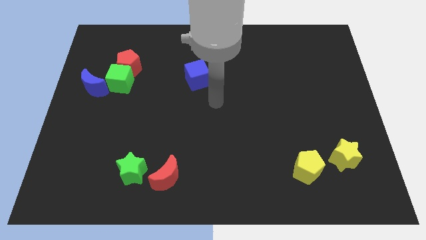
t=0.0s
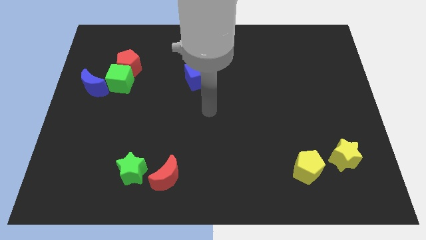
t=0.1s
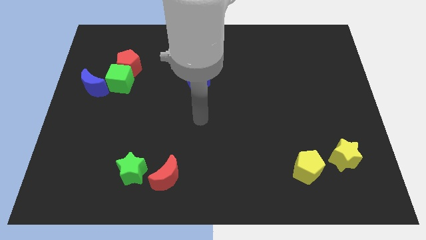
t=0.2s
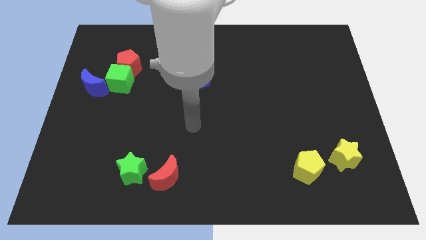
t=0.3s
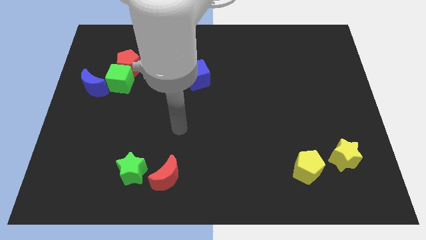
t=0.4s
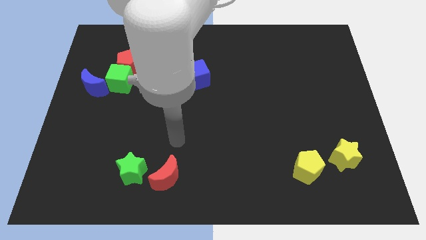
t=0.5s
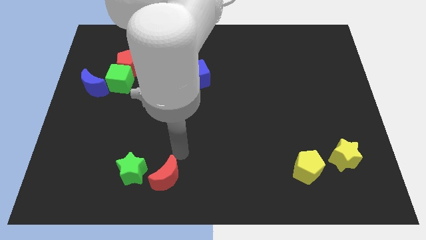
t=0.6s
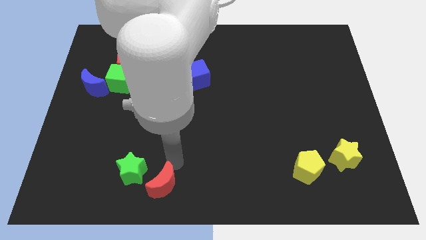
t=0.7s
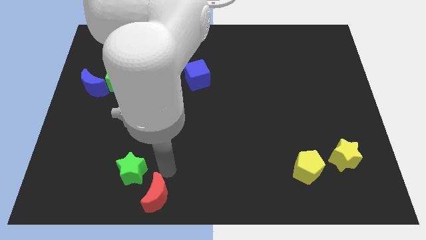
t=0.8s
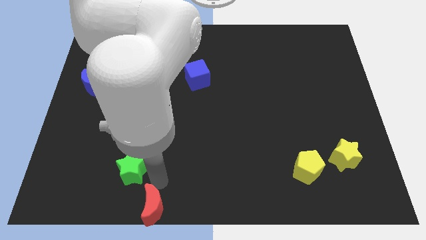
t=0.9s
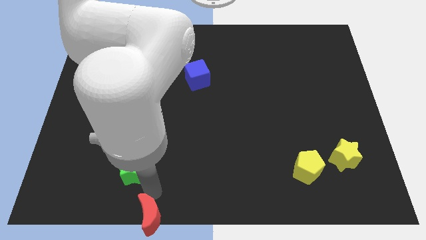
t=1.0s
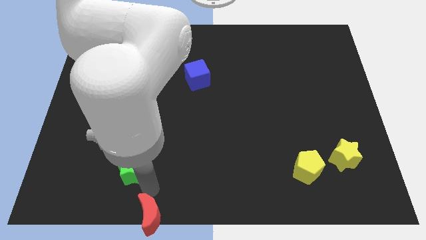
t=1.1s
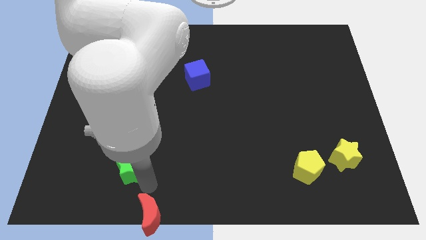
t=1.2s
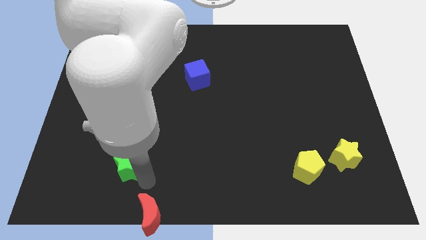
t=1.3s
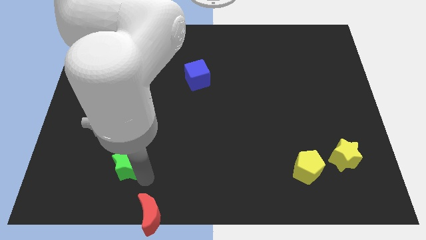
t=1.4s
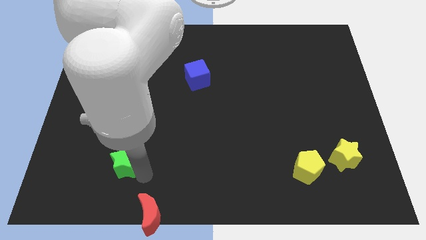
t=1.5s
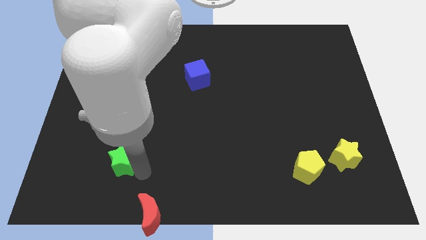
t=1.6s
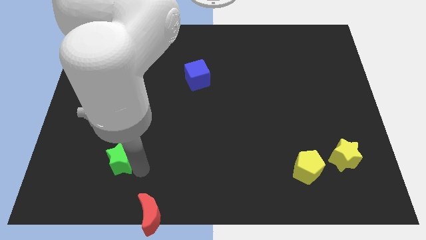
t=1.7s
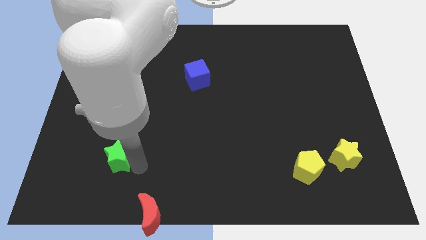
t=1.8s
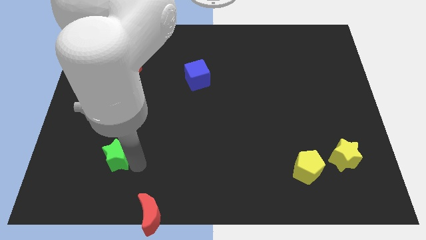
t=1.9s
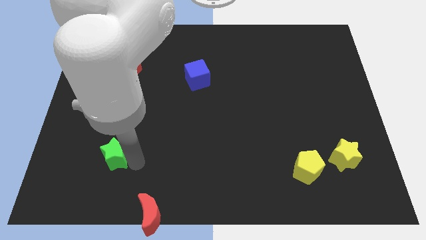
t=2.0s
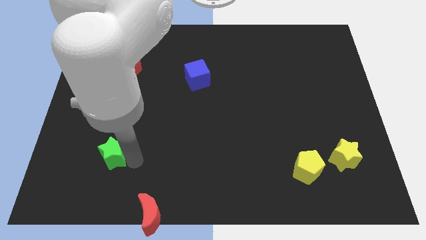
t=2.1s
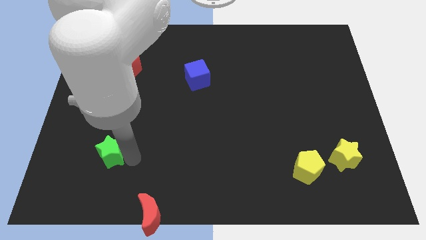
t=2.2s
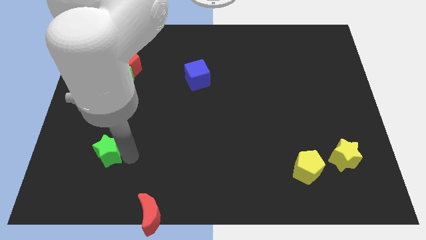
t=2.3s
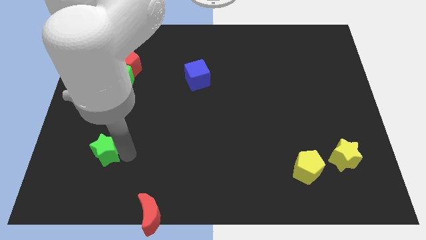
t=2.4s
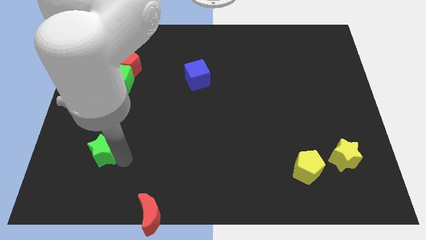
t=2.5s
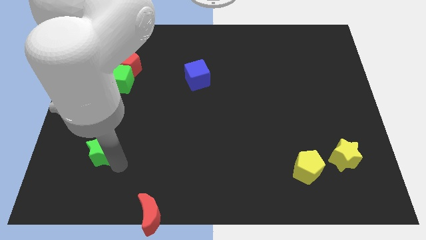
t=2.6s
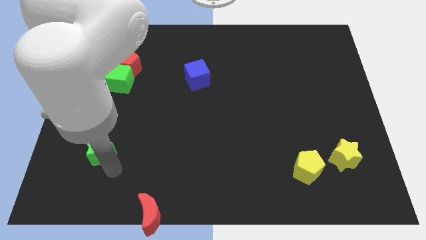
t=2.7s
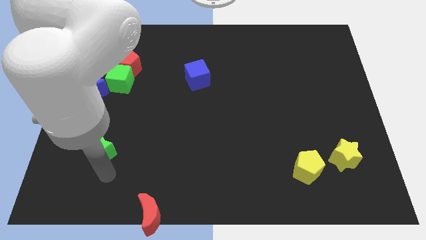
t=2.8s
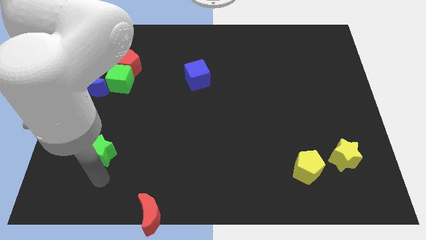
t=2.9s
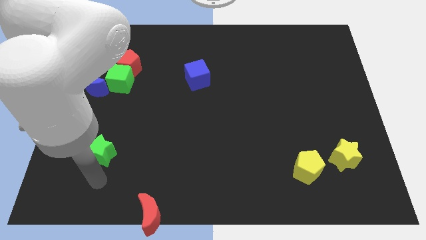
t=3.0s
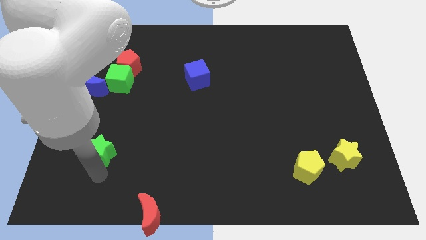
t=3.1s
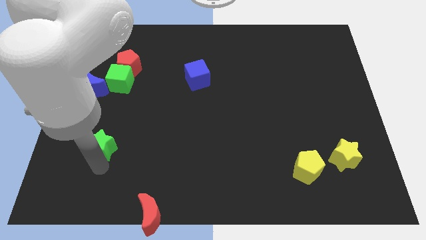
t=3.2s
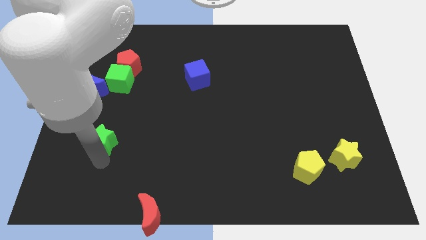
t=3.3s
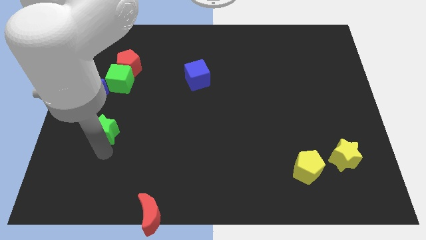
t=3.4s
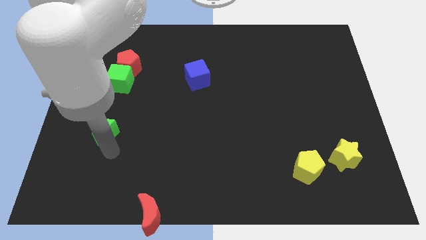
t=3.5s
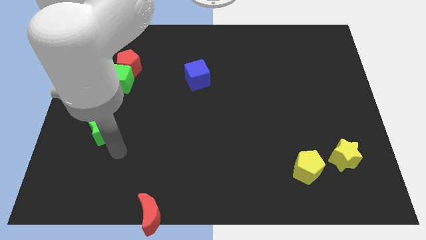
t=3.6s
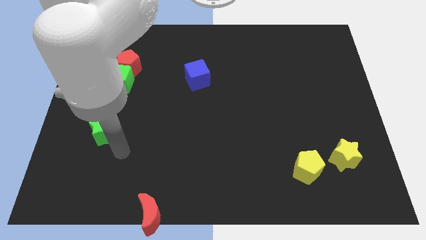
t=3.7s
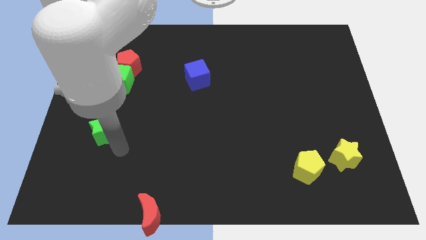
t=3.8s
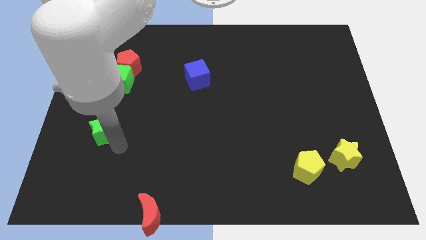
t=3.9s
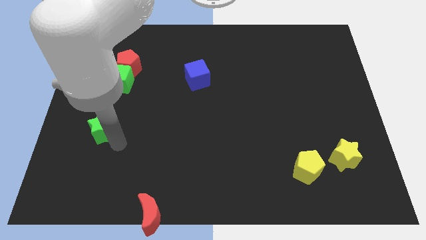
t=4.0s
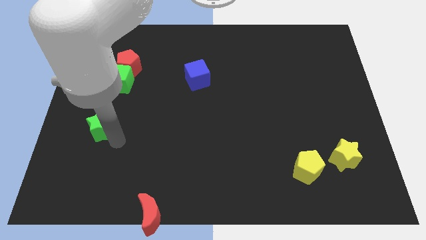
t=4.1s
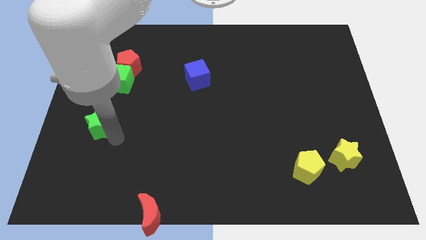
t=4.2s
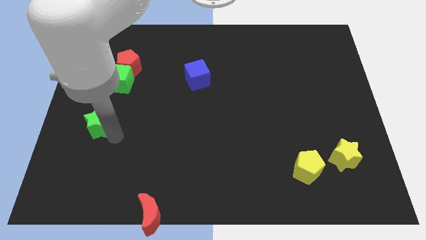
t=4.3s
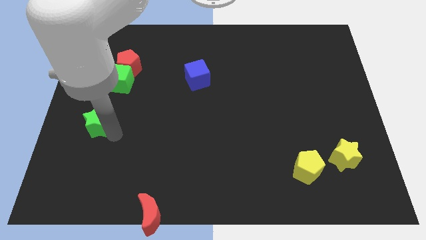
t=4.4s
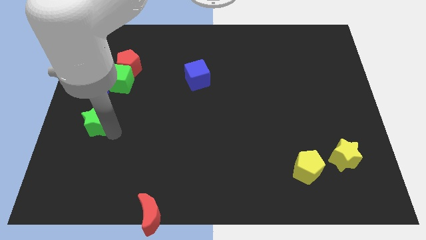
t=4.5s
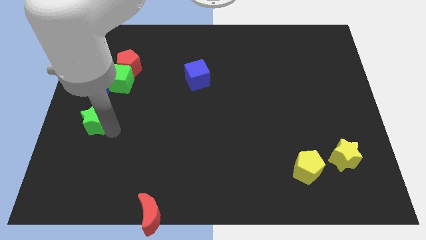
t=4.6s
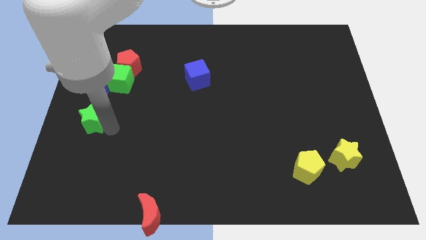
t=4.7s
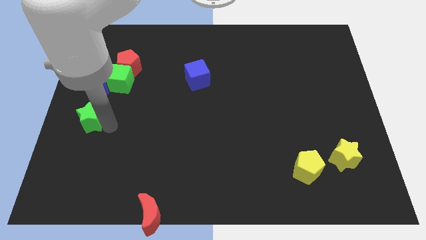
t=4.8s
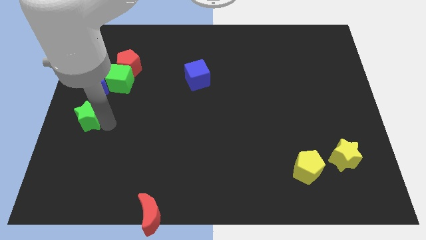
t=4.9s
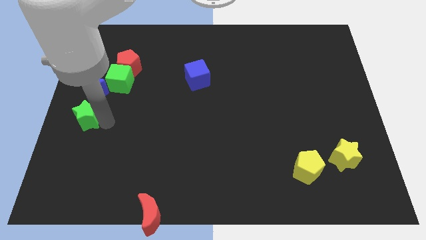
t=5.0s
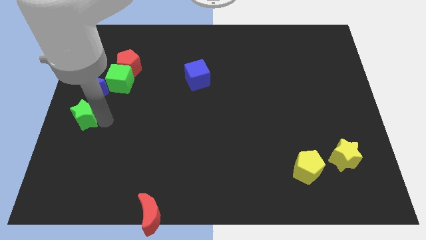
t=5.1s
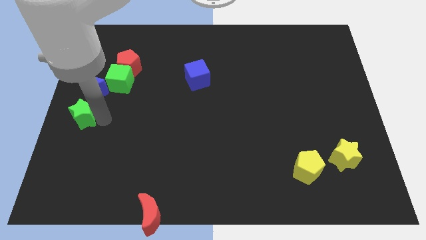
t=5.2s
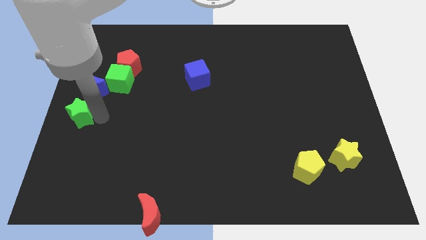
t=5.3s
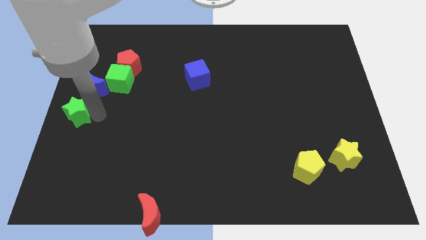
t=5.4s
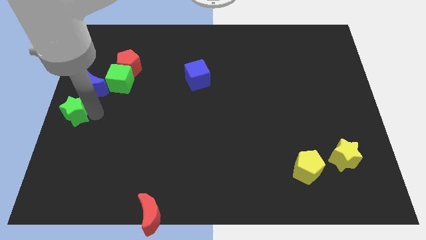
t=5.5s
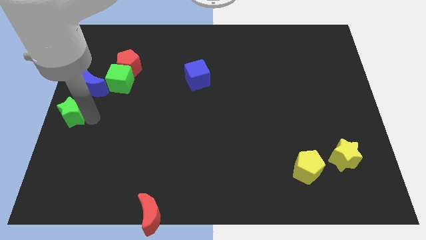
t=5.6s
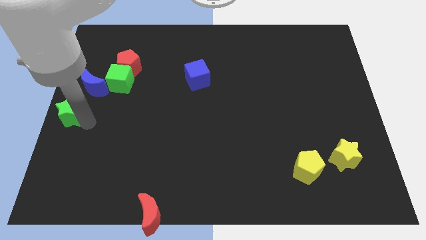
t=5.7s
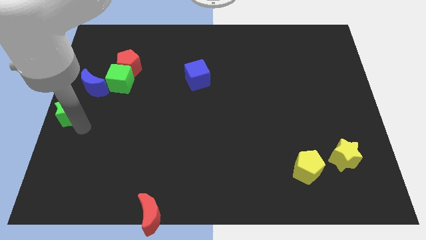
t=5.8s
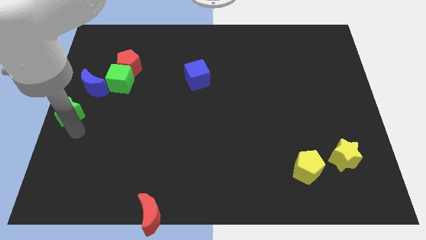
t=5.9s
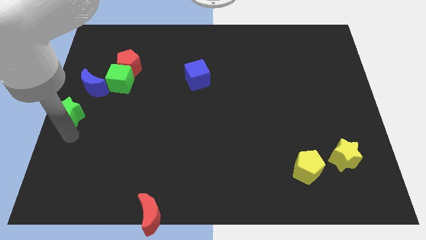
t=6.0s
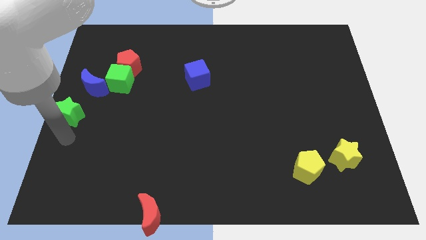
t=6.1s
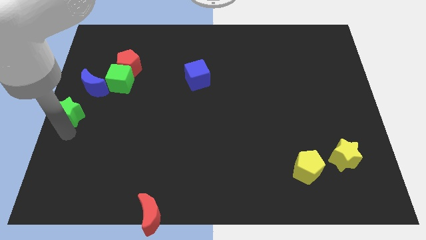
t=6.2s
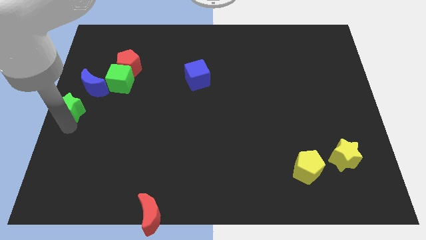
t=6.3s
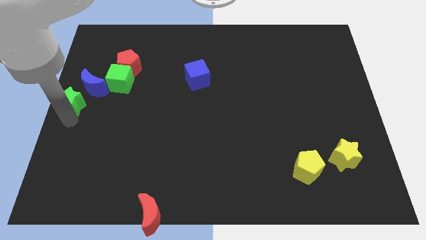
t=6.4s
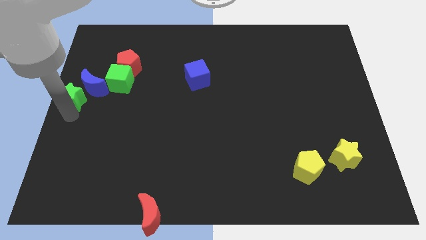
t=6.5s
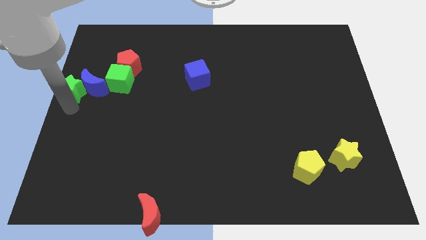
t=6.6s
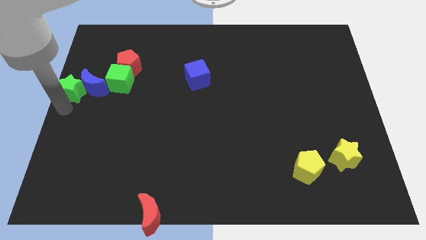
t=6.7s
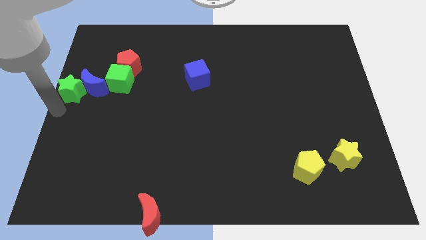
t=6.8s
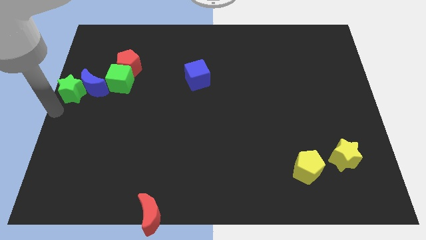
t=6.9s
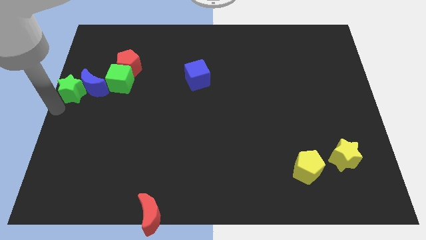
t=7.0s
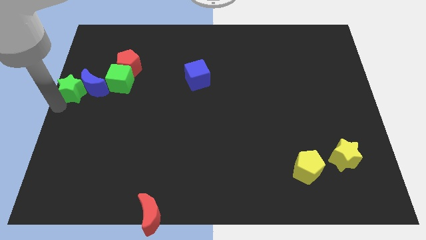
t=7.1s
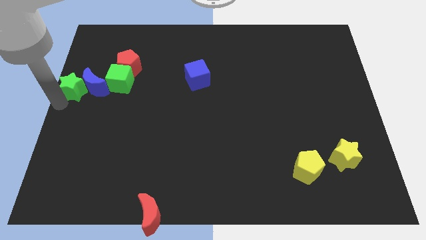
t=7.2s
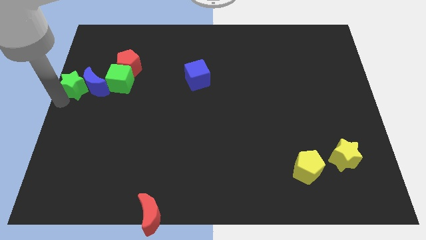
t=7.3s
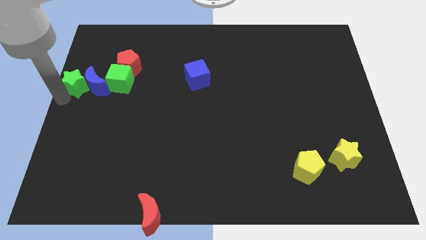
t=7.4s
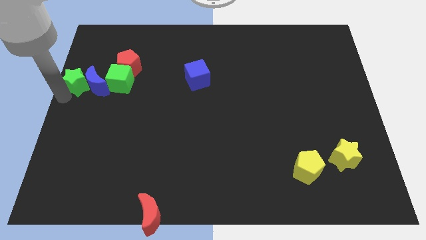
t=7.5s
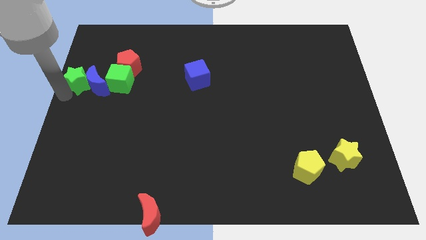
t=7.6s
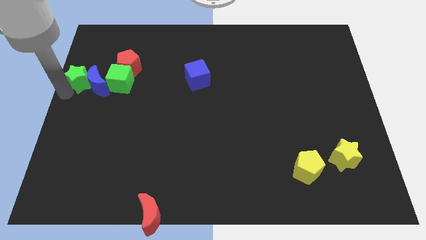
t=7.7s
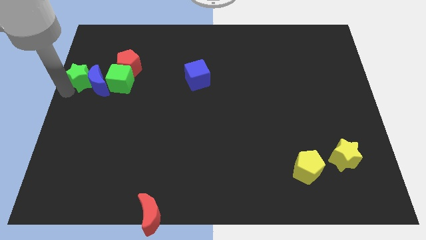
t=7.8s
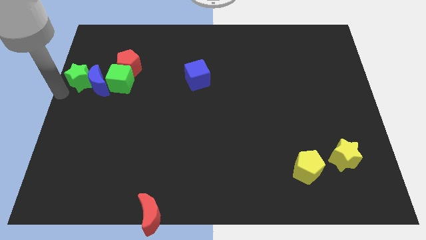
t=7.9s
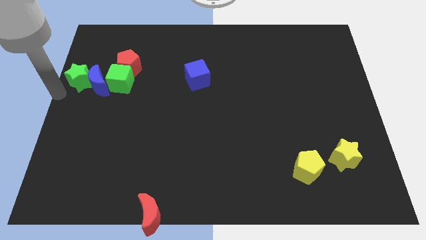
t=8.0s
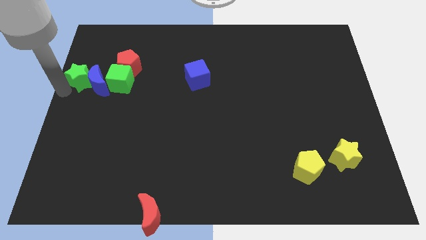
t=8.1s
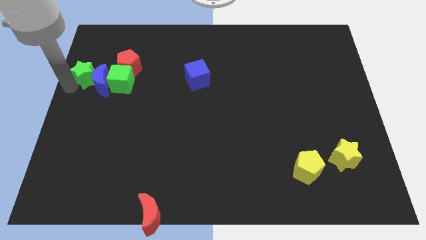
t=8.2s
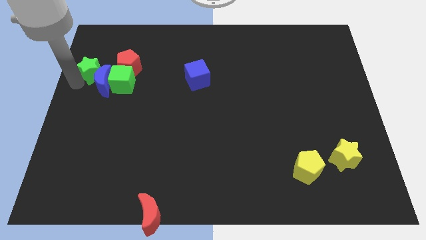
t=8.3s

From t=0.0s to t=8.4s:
put the green star to the top left side of the green cube

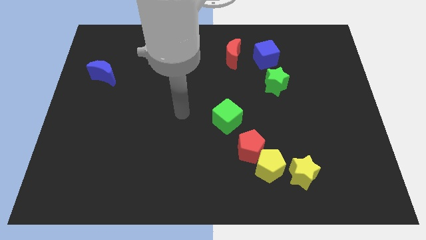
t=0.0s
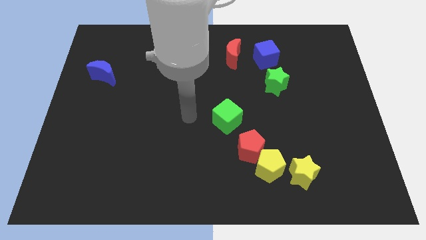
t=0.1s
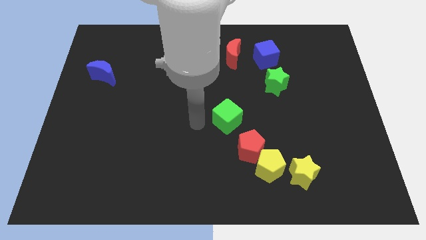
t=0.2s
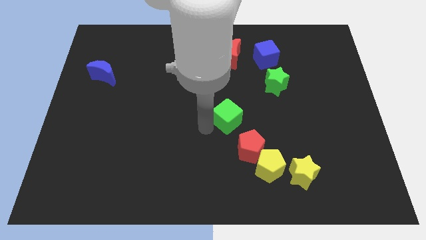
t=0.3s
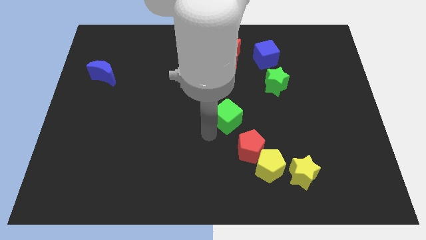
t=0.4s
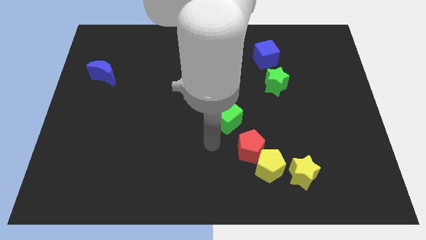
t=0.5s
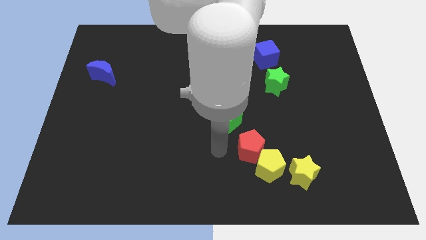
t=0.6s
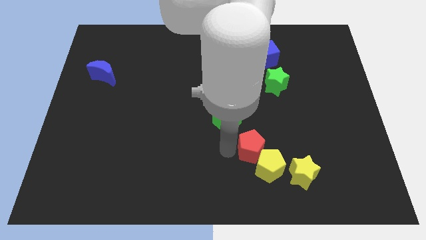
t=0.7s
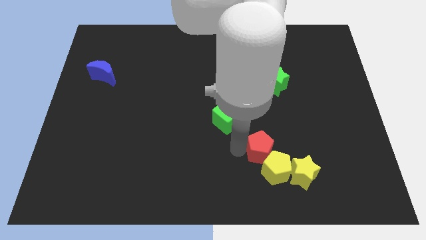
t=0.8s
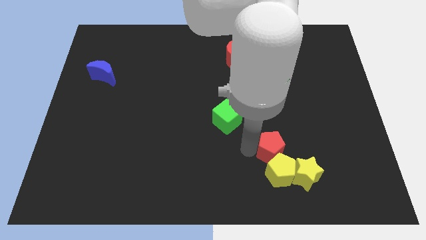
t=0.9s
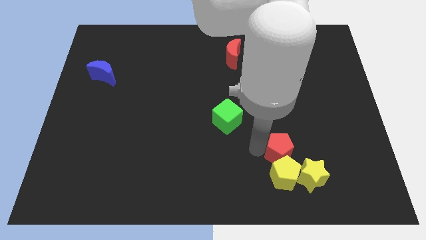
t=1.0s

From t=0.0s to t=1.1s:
push the red pentagon diagonally up and to the right of the yellow pentagon
